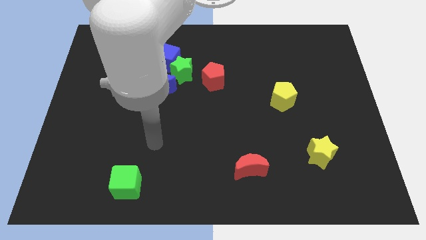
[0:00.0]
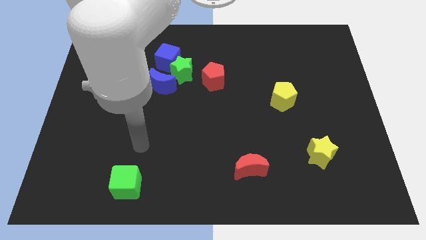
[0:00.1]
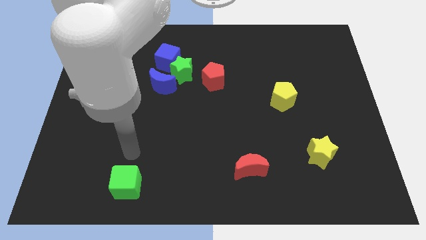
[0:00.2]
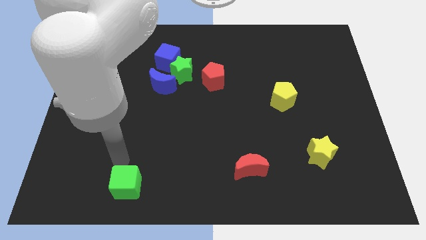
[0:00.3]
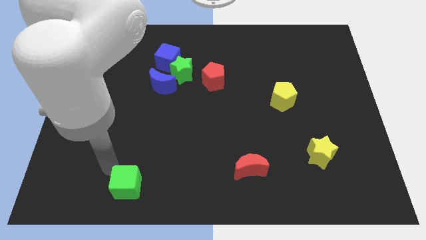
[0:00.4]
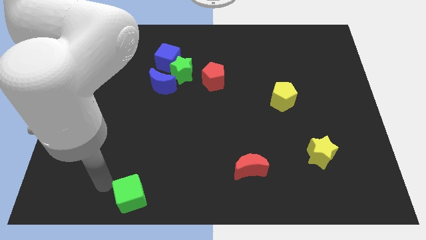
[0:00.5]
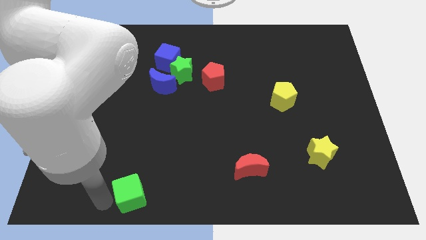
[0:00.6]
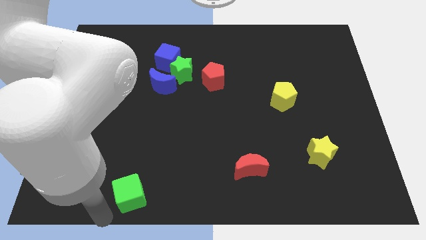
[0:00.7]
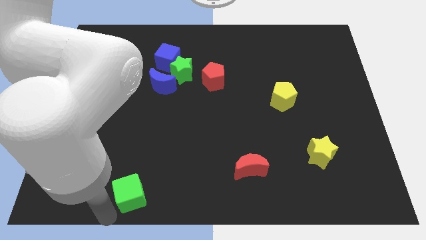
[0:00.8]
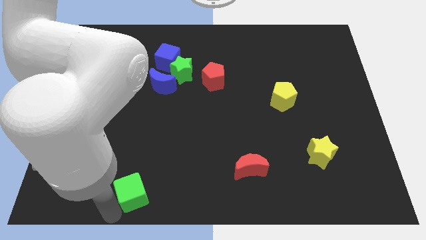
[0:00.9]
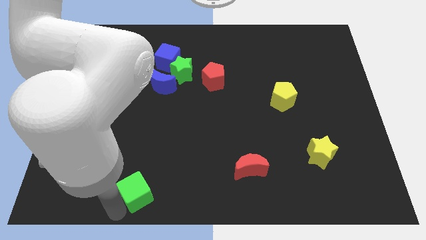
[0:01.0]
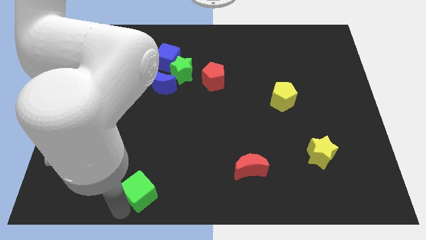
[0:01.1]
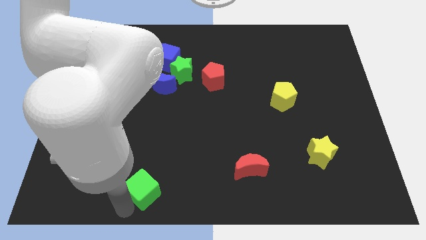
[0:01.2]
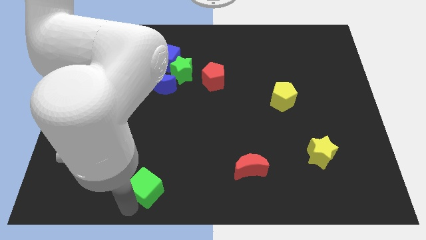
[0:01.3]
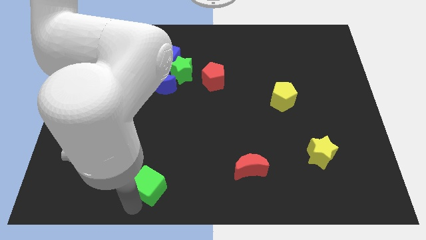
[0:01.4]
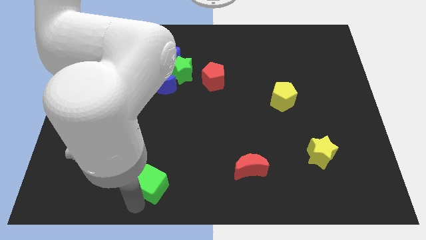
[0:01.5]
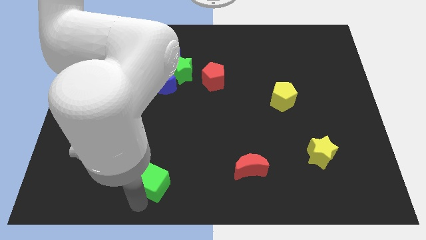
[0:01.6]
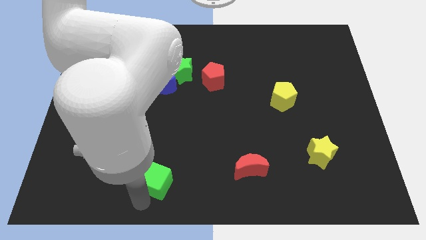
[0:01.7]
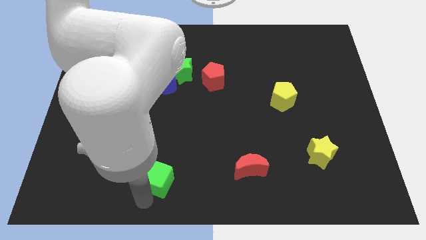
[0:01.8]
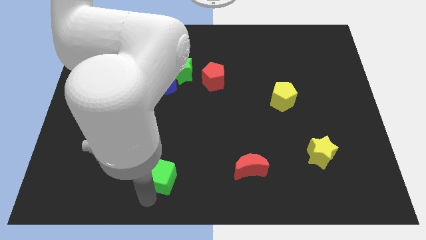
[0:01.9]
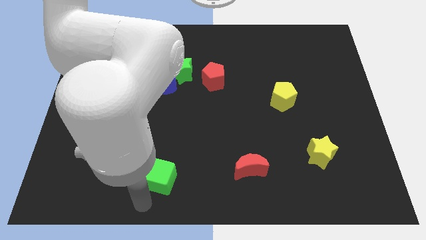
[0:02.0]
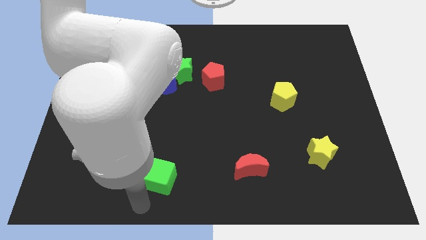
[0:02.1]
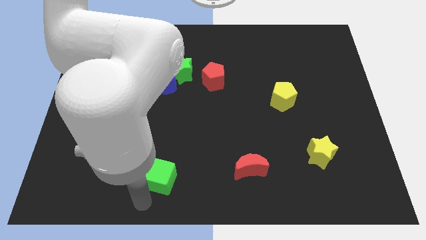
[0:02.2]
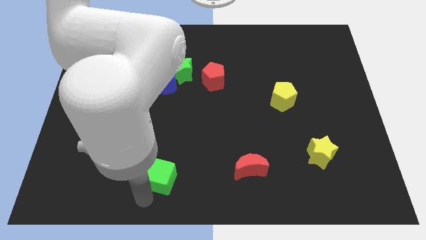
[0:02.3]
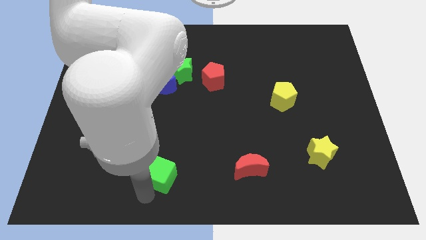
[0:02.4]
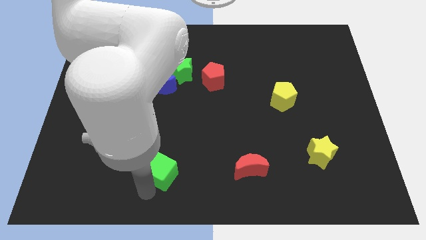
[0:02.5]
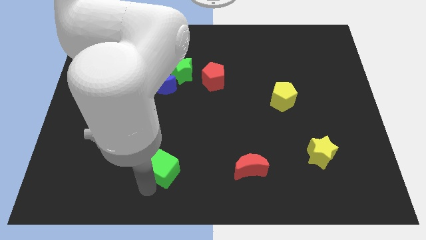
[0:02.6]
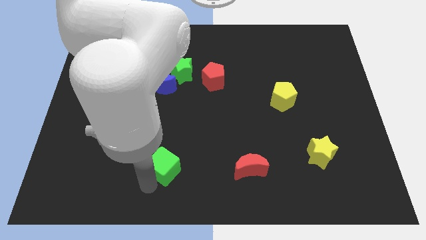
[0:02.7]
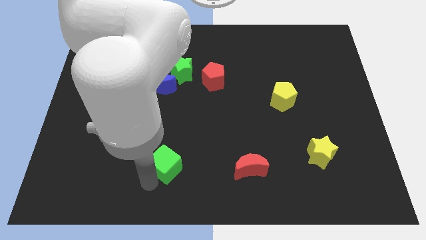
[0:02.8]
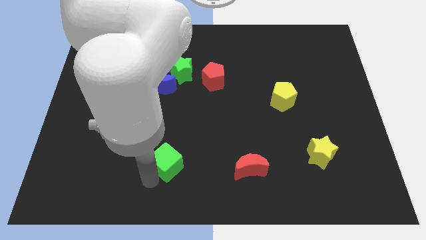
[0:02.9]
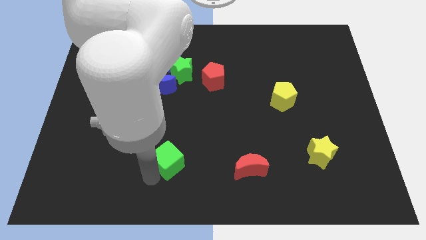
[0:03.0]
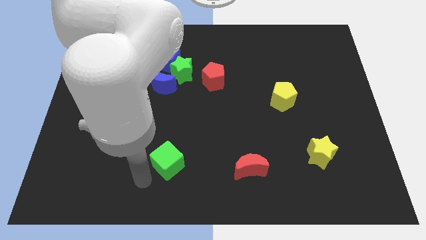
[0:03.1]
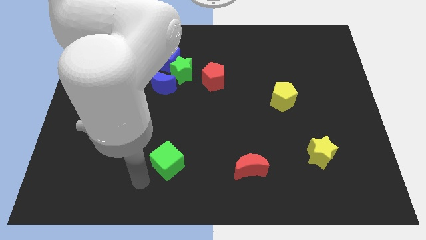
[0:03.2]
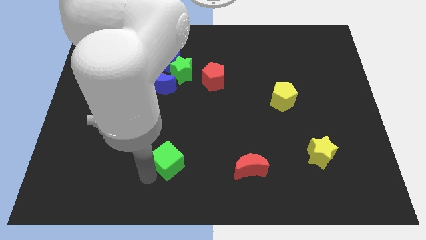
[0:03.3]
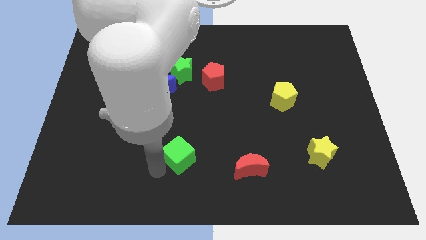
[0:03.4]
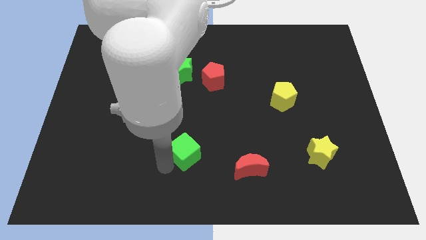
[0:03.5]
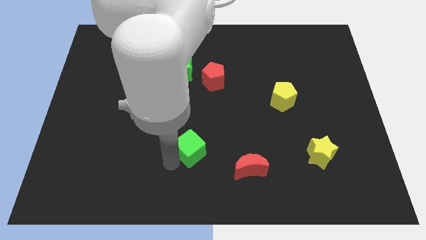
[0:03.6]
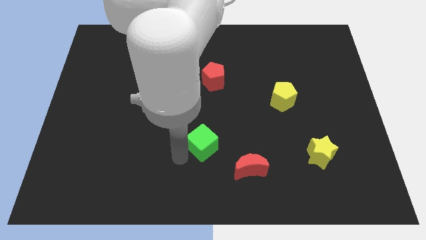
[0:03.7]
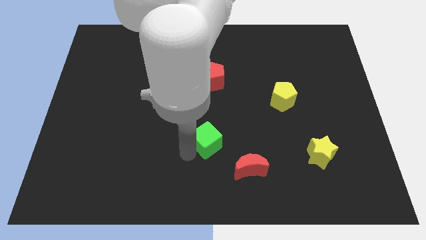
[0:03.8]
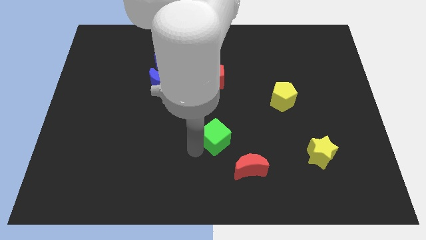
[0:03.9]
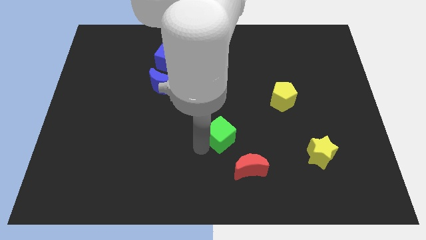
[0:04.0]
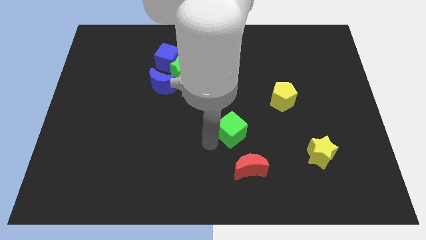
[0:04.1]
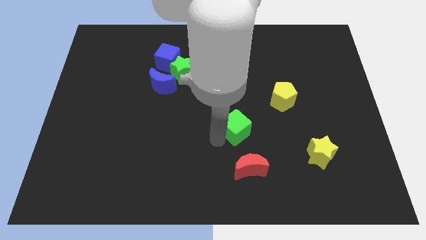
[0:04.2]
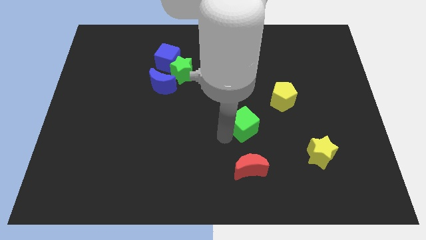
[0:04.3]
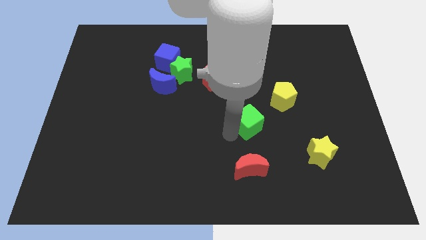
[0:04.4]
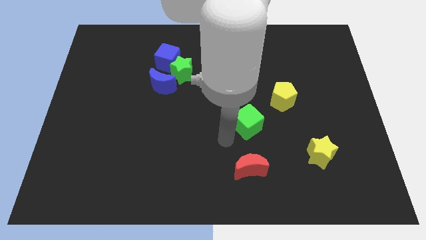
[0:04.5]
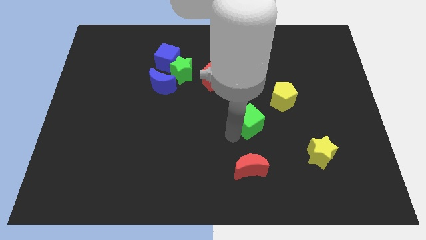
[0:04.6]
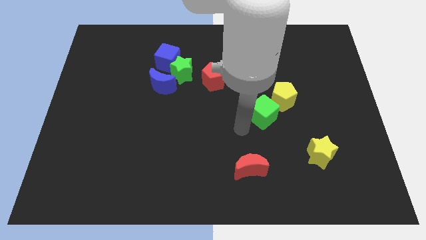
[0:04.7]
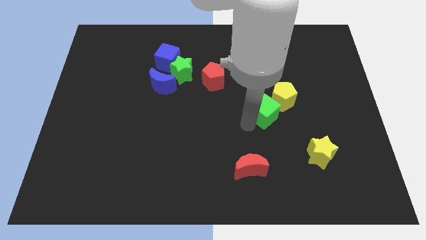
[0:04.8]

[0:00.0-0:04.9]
put the green cube close to the yellow pentagon

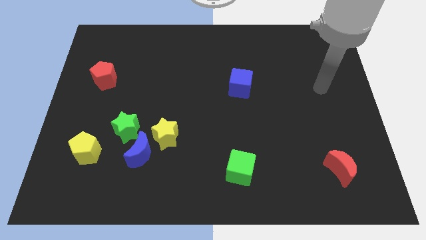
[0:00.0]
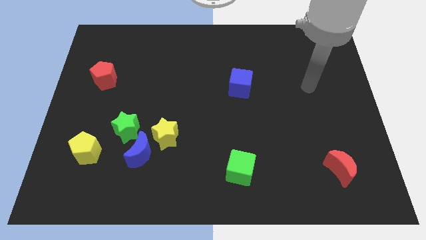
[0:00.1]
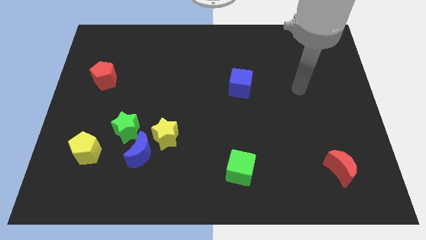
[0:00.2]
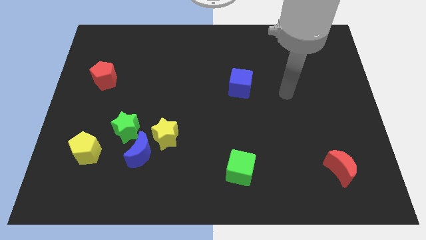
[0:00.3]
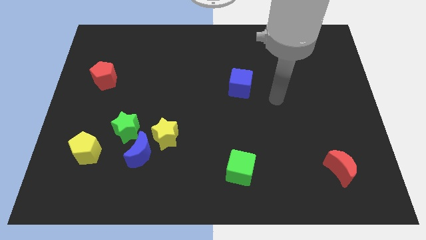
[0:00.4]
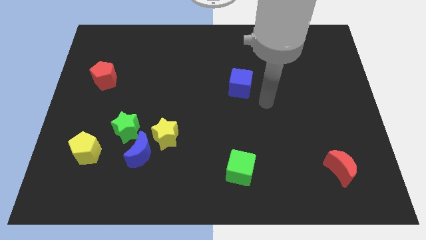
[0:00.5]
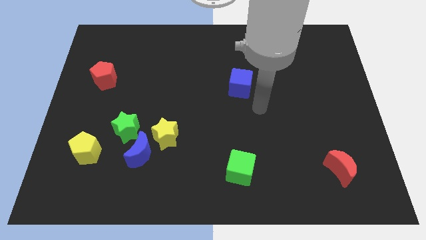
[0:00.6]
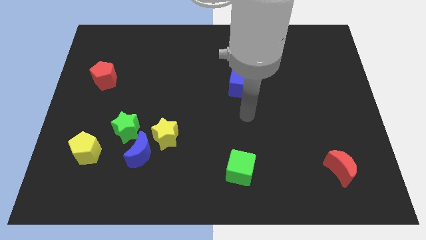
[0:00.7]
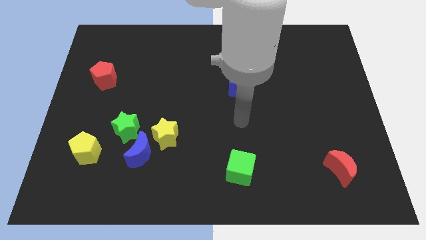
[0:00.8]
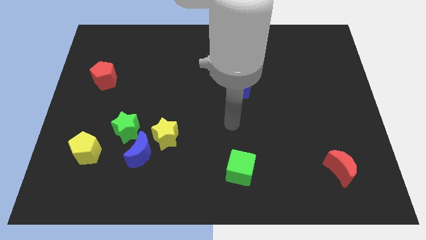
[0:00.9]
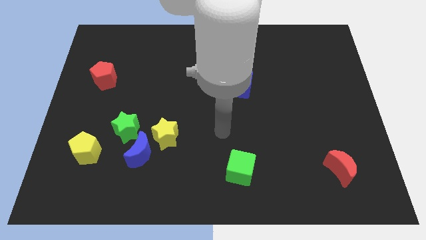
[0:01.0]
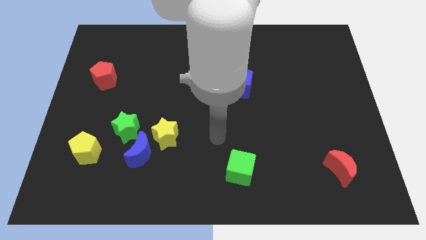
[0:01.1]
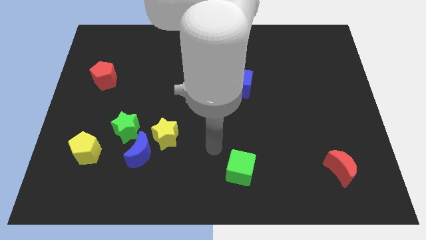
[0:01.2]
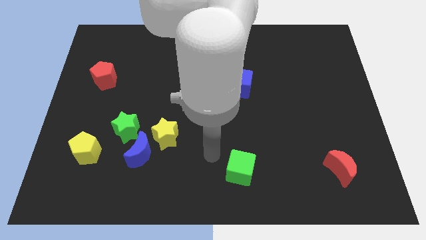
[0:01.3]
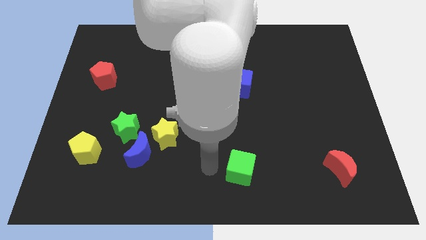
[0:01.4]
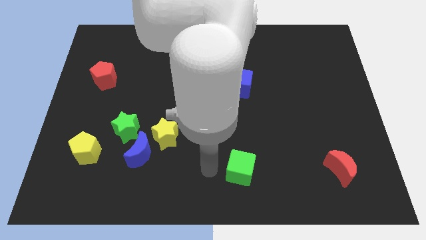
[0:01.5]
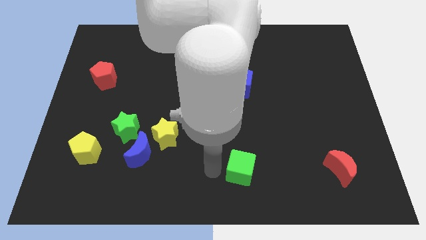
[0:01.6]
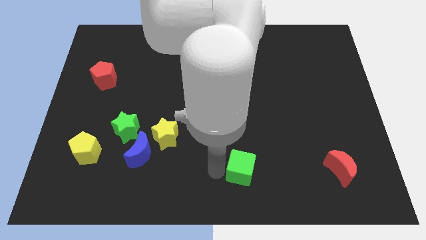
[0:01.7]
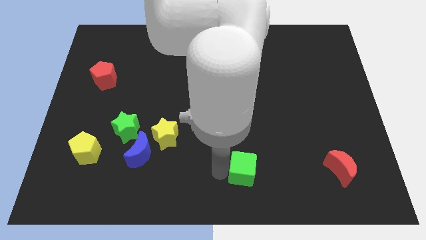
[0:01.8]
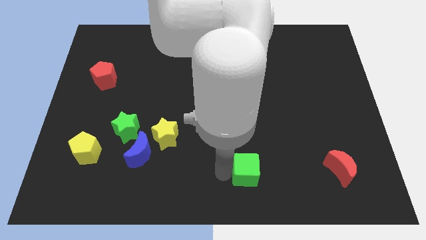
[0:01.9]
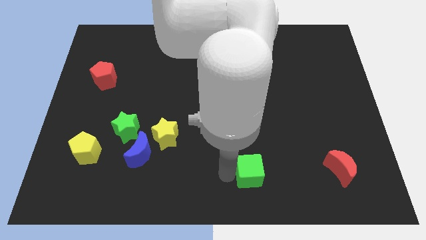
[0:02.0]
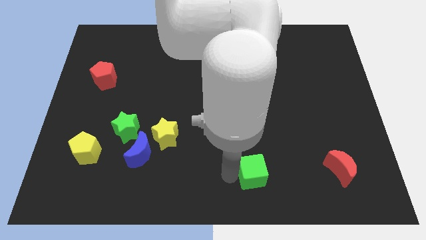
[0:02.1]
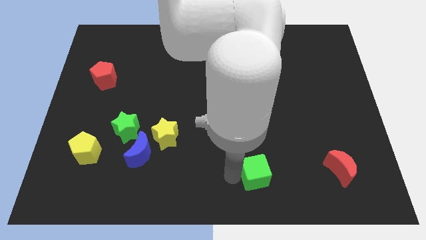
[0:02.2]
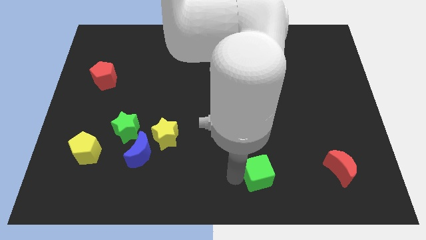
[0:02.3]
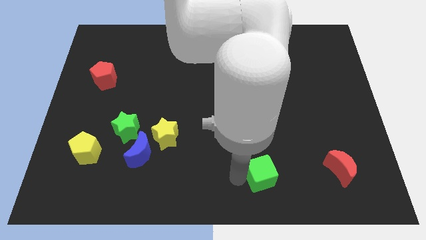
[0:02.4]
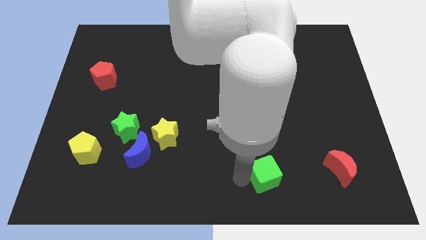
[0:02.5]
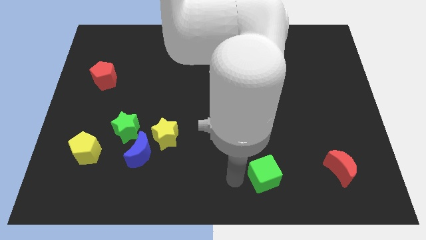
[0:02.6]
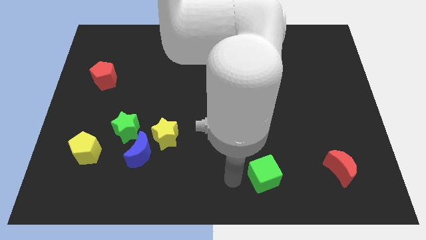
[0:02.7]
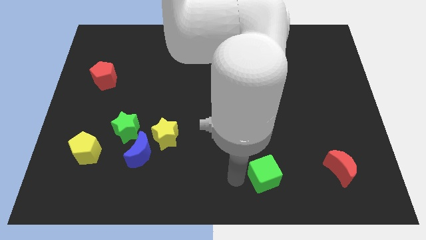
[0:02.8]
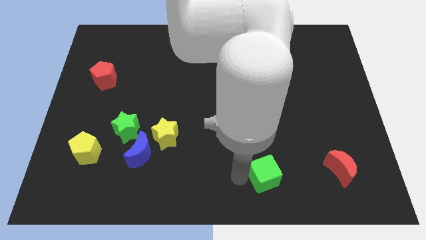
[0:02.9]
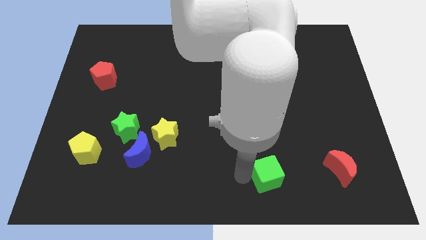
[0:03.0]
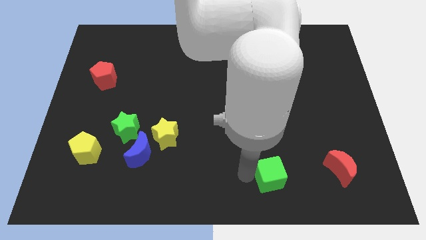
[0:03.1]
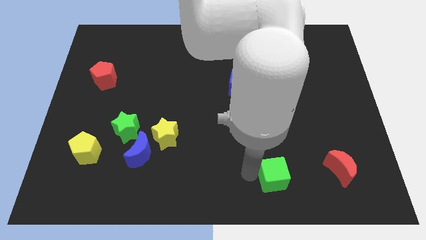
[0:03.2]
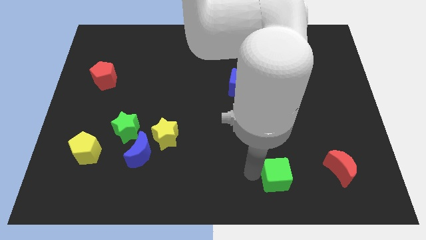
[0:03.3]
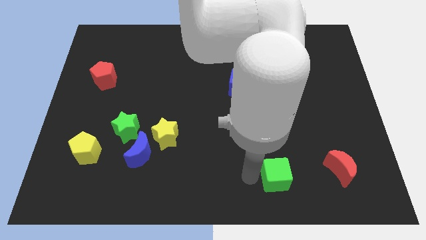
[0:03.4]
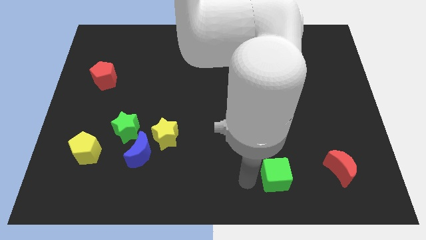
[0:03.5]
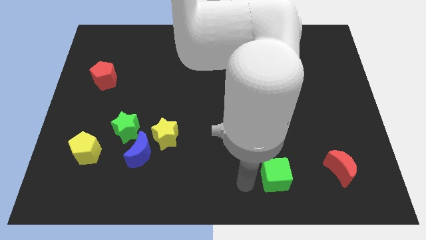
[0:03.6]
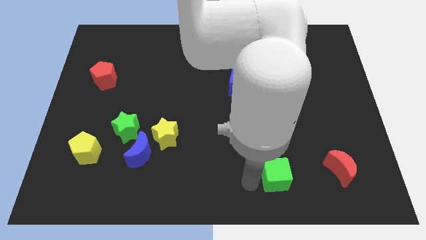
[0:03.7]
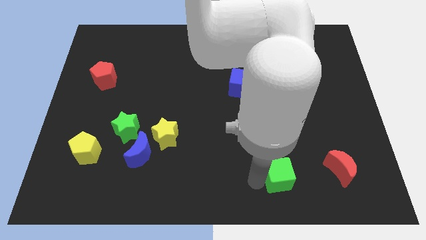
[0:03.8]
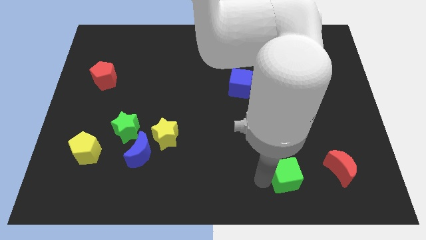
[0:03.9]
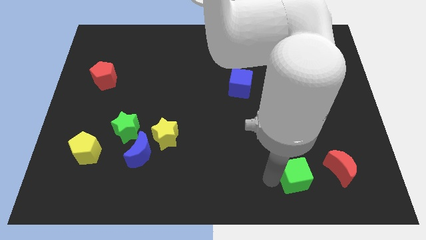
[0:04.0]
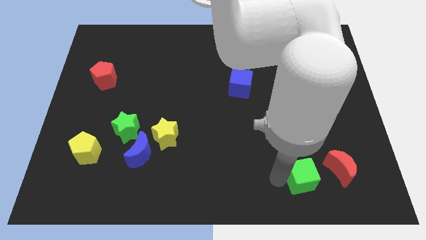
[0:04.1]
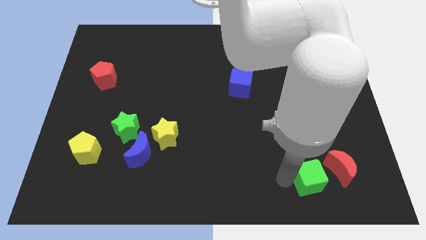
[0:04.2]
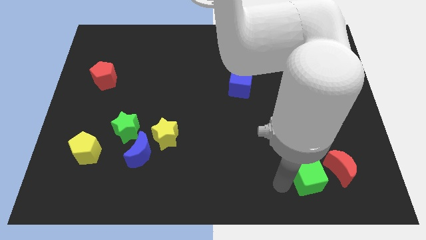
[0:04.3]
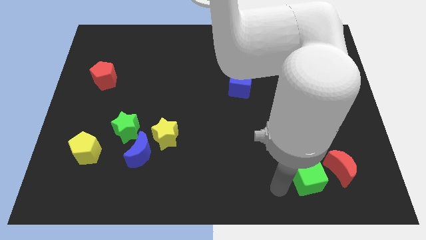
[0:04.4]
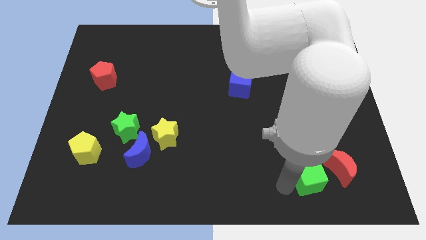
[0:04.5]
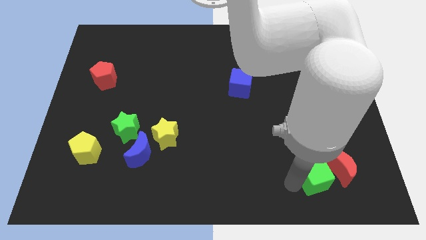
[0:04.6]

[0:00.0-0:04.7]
move the green cube next to the red moon
